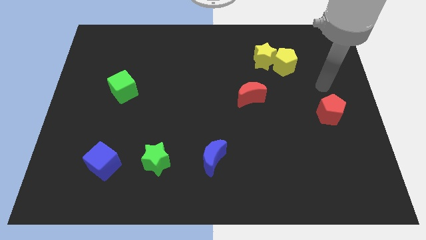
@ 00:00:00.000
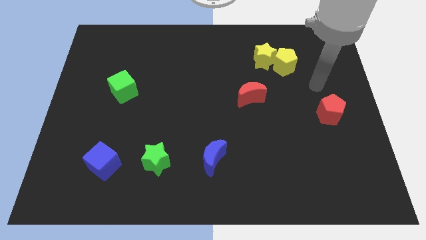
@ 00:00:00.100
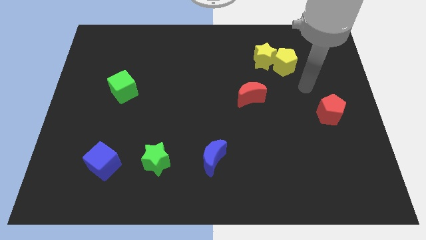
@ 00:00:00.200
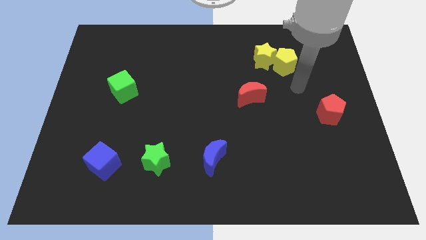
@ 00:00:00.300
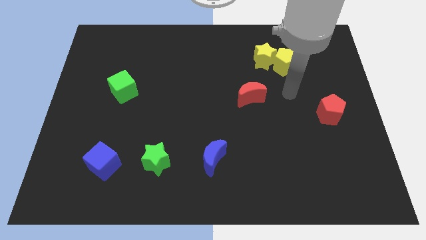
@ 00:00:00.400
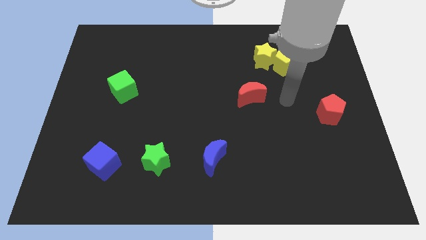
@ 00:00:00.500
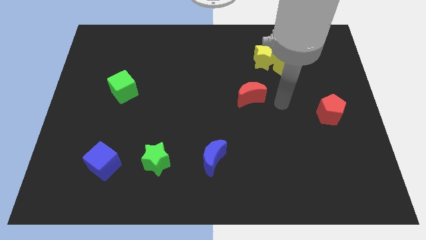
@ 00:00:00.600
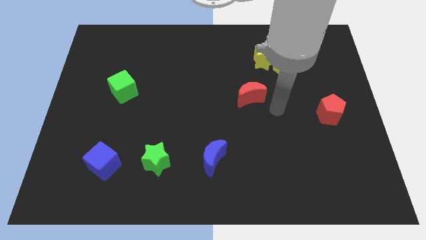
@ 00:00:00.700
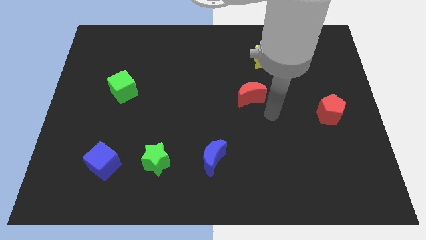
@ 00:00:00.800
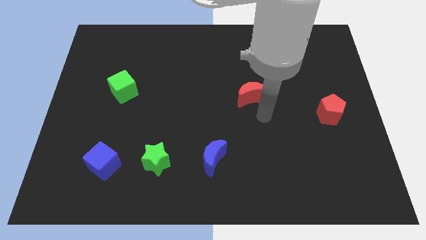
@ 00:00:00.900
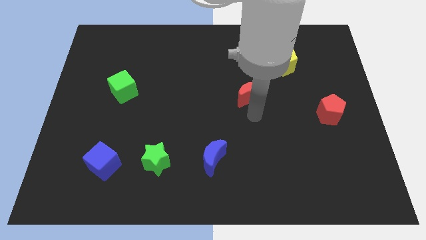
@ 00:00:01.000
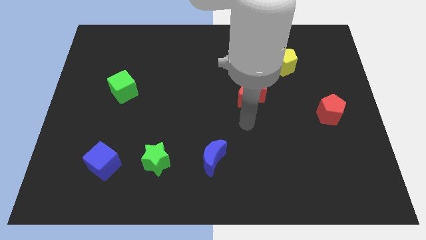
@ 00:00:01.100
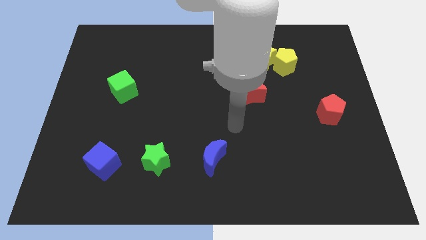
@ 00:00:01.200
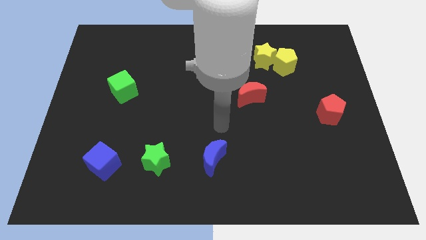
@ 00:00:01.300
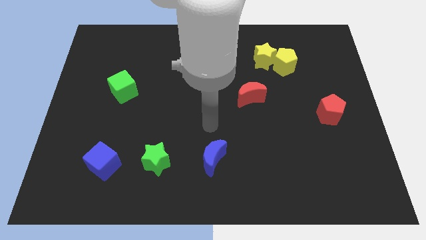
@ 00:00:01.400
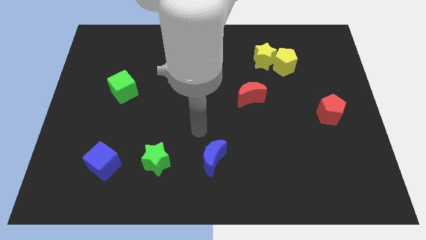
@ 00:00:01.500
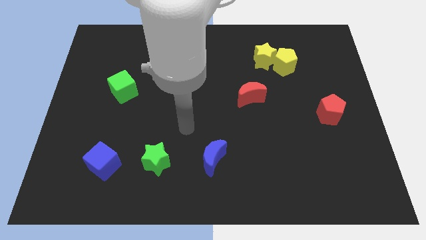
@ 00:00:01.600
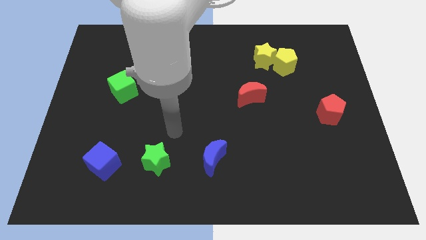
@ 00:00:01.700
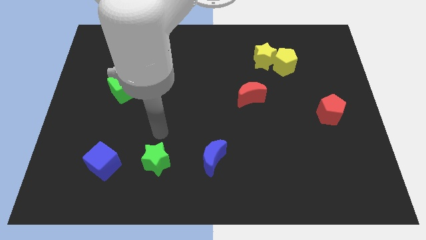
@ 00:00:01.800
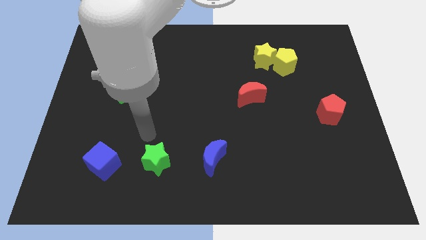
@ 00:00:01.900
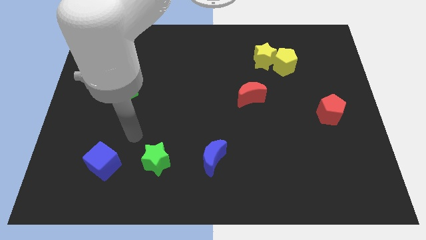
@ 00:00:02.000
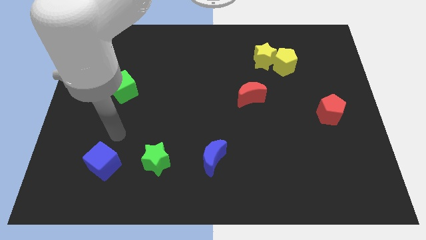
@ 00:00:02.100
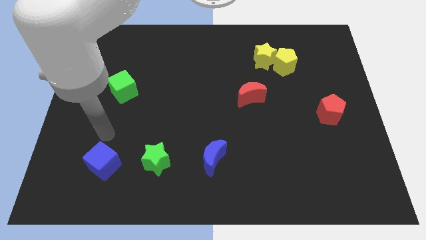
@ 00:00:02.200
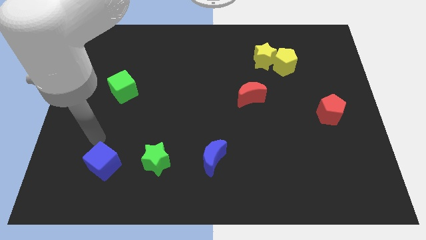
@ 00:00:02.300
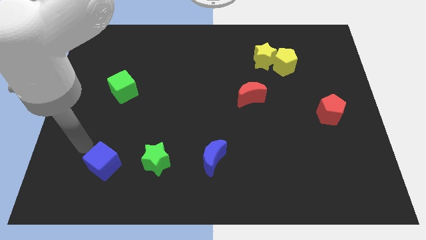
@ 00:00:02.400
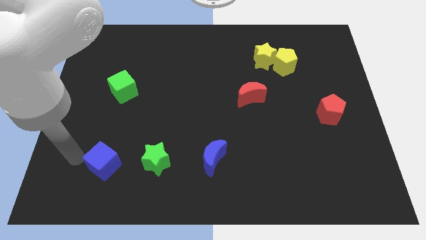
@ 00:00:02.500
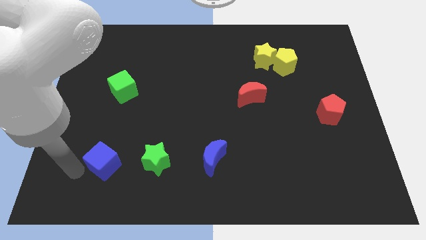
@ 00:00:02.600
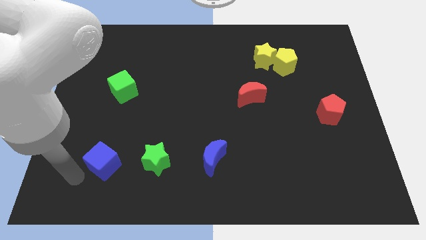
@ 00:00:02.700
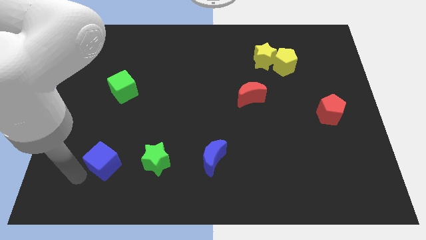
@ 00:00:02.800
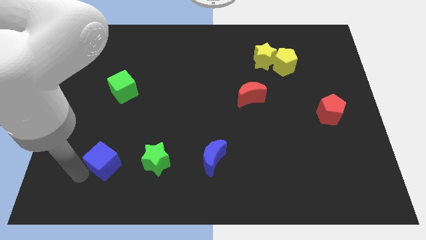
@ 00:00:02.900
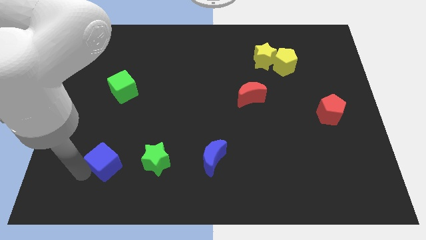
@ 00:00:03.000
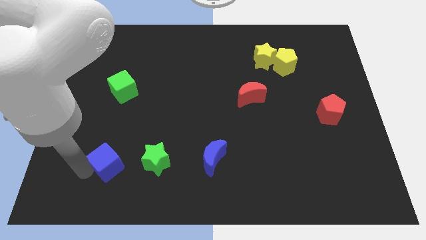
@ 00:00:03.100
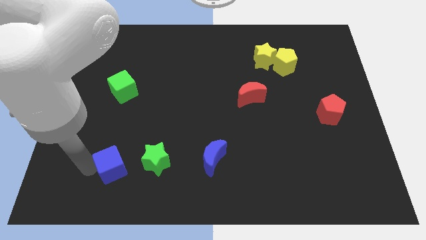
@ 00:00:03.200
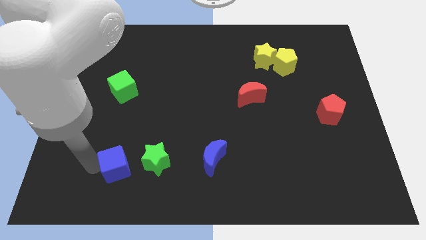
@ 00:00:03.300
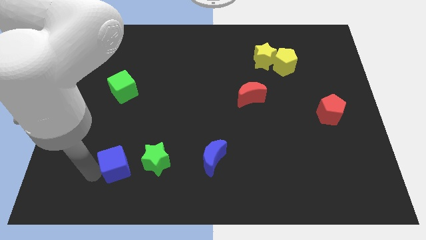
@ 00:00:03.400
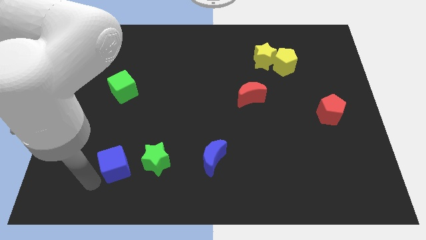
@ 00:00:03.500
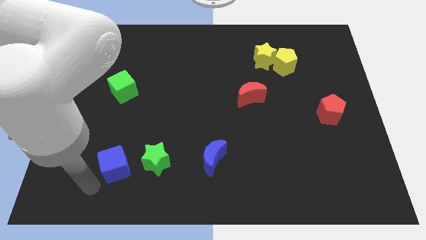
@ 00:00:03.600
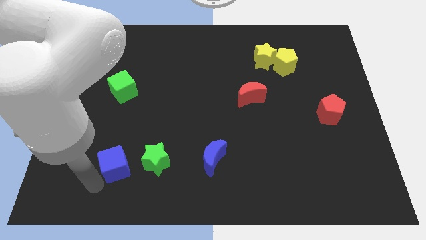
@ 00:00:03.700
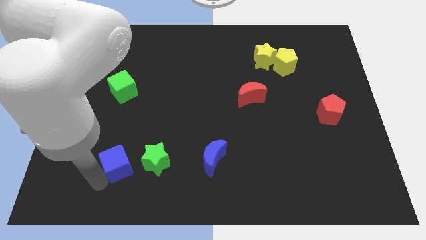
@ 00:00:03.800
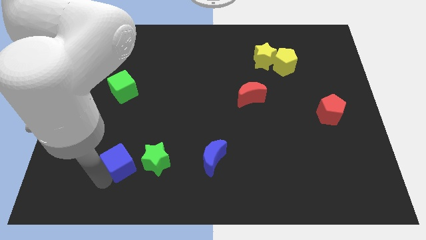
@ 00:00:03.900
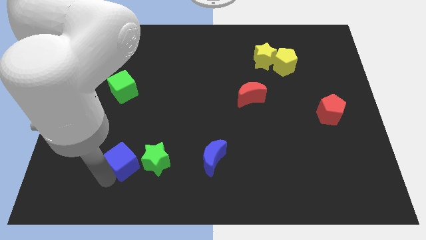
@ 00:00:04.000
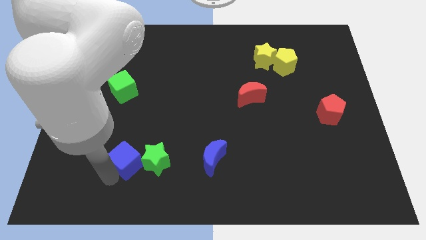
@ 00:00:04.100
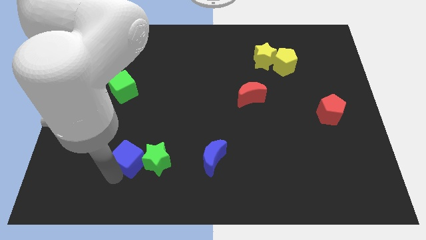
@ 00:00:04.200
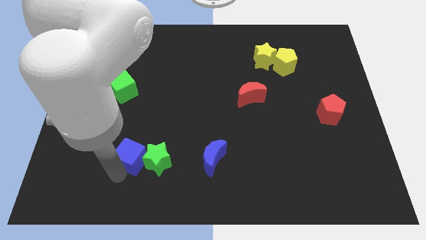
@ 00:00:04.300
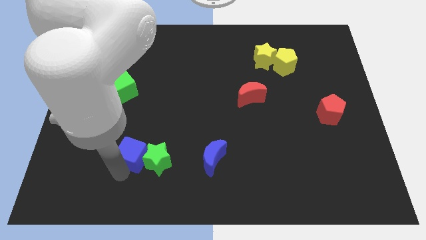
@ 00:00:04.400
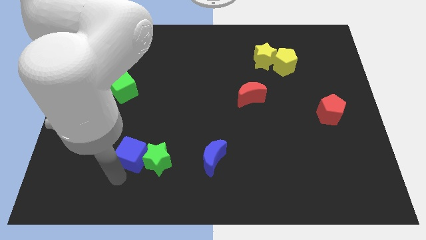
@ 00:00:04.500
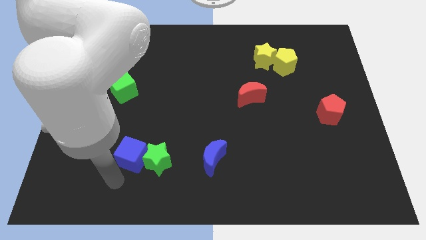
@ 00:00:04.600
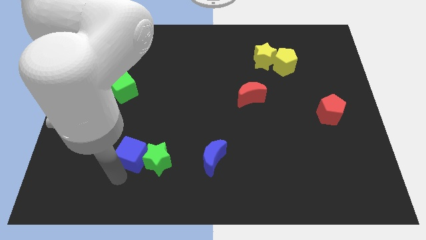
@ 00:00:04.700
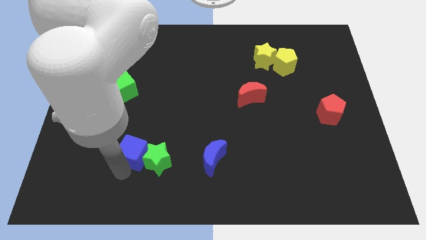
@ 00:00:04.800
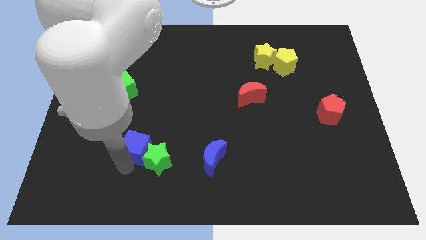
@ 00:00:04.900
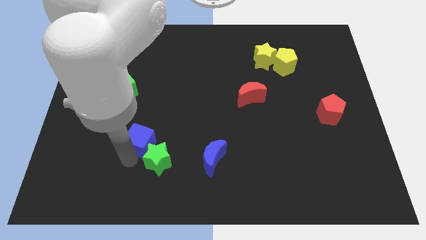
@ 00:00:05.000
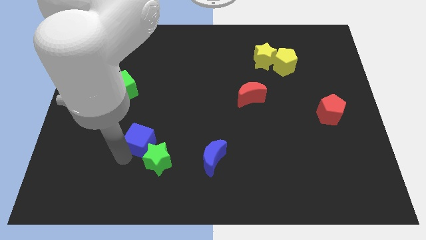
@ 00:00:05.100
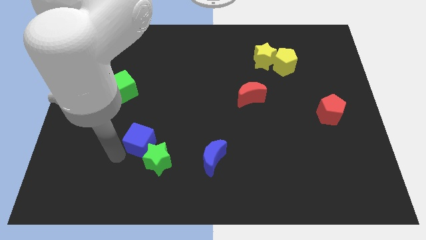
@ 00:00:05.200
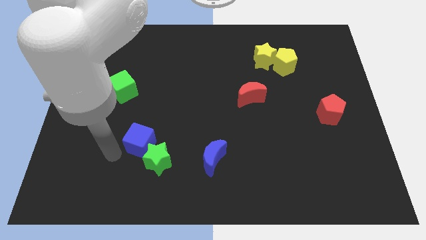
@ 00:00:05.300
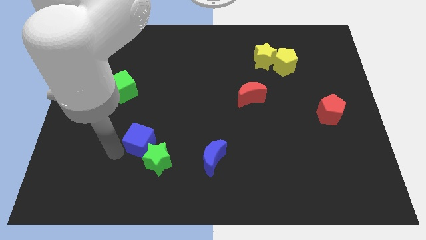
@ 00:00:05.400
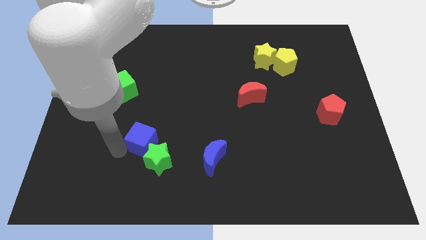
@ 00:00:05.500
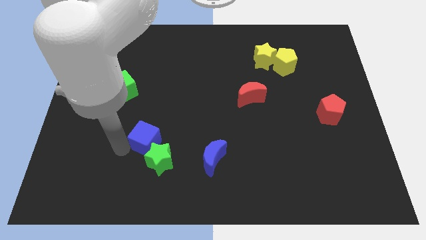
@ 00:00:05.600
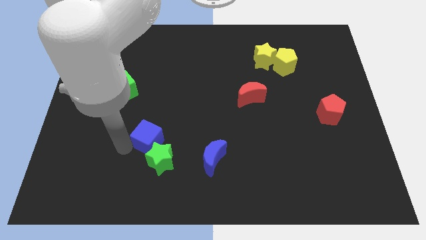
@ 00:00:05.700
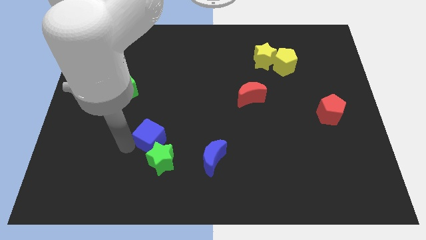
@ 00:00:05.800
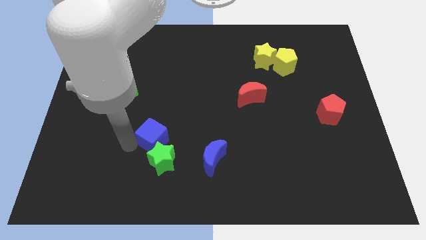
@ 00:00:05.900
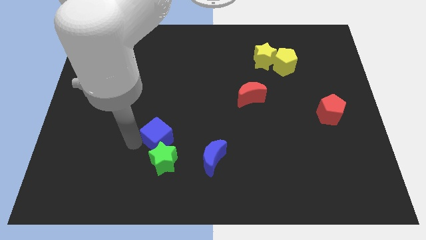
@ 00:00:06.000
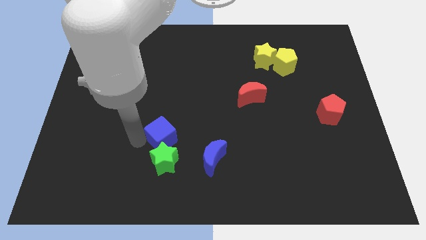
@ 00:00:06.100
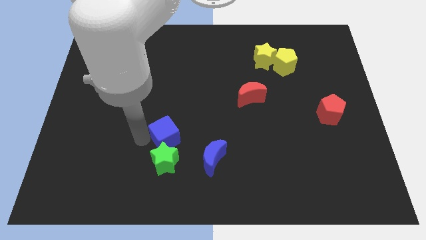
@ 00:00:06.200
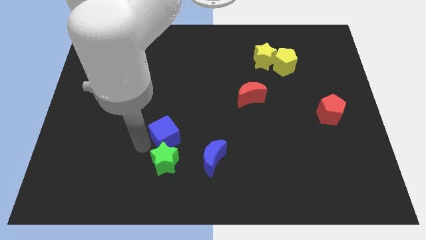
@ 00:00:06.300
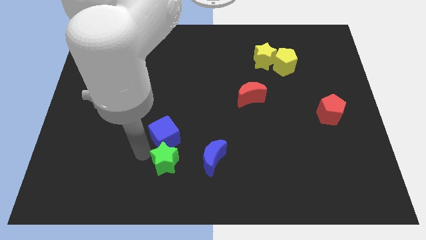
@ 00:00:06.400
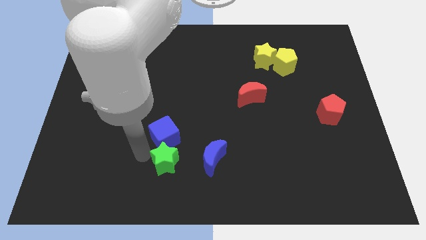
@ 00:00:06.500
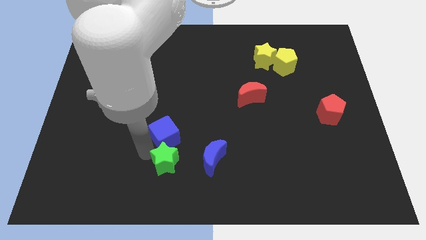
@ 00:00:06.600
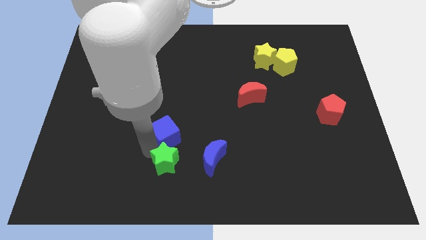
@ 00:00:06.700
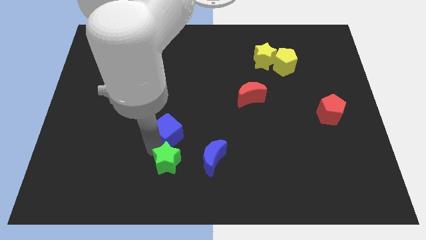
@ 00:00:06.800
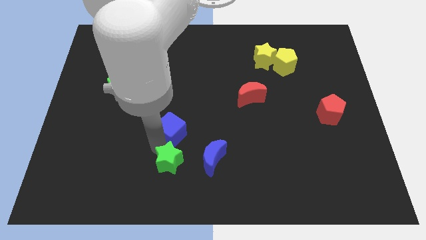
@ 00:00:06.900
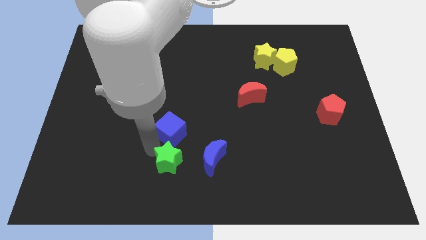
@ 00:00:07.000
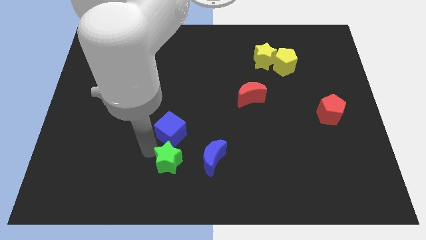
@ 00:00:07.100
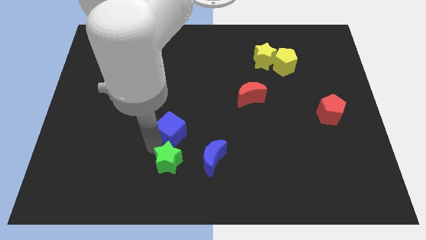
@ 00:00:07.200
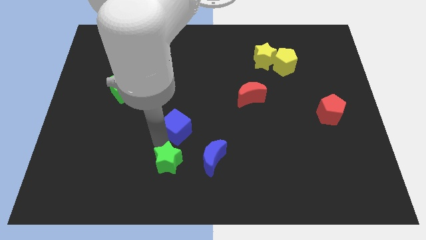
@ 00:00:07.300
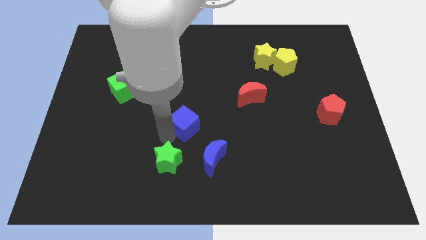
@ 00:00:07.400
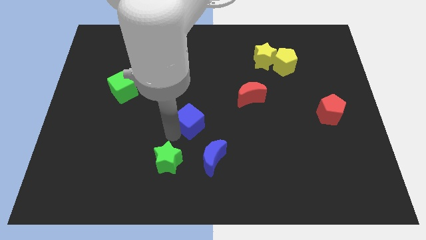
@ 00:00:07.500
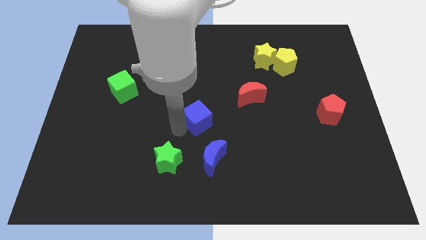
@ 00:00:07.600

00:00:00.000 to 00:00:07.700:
put the blue cube above the blue moon
